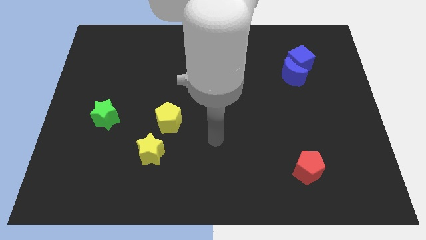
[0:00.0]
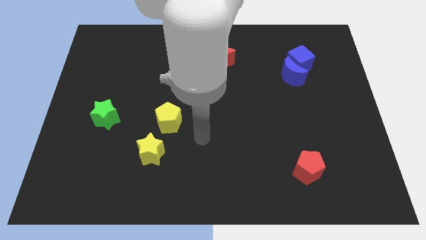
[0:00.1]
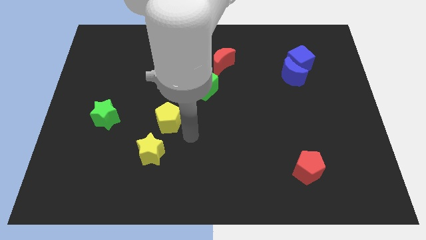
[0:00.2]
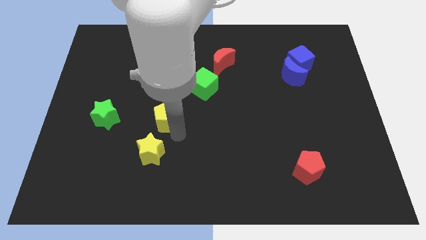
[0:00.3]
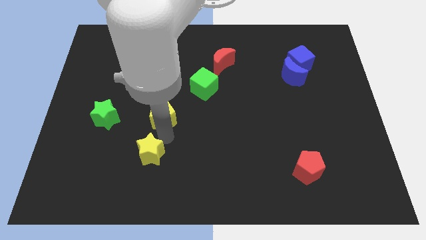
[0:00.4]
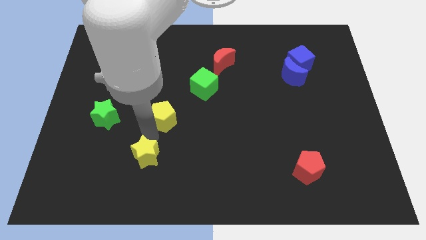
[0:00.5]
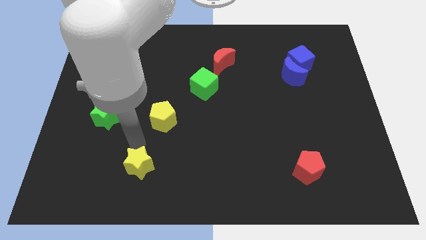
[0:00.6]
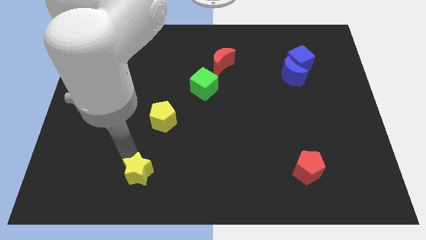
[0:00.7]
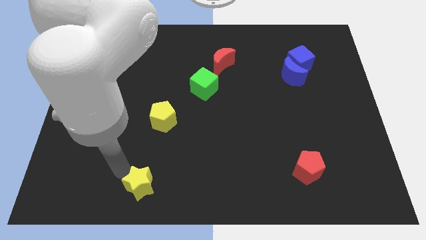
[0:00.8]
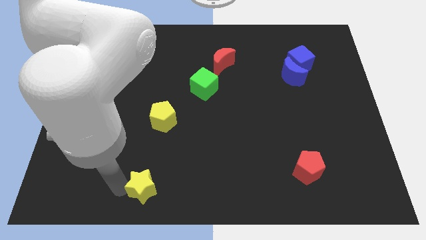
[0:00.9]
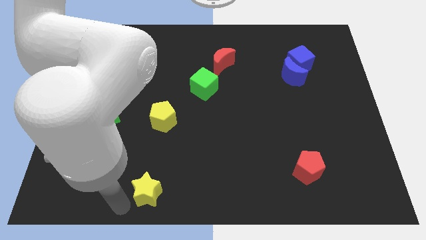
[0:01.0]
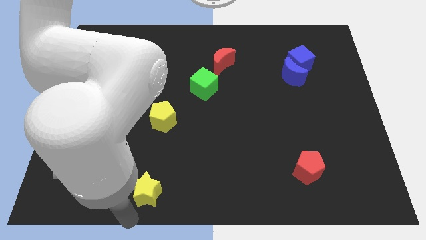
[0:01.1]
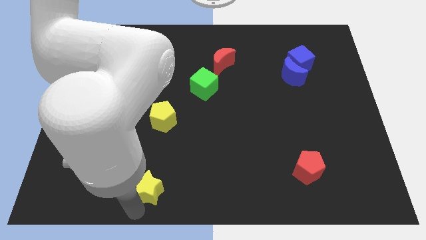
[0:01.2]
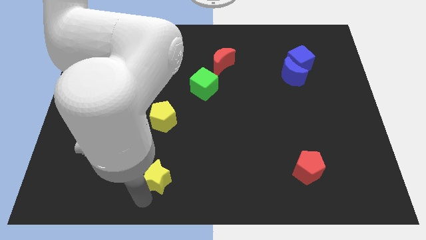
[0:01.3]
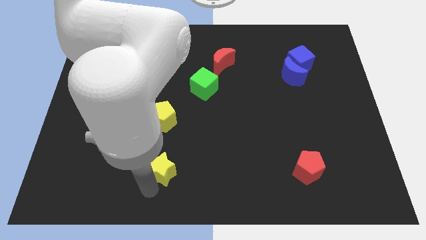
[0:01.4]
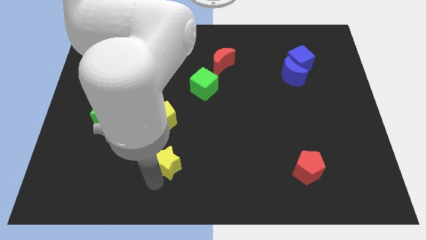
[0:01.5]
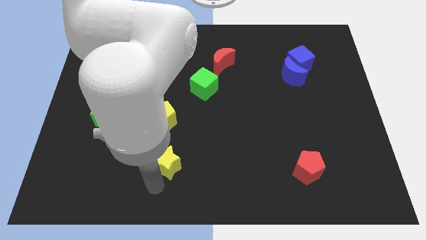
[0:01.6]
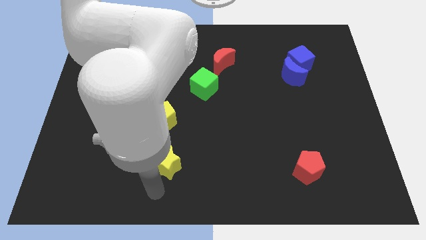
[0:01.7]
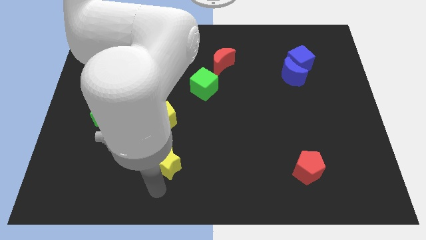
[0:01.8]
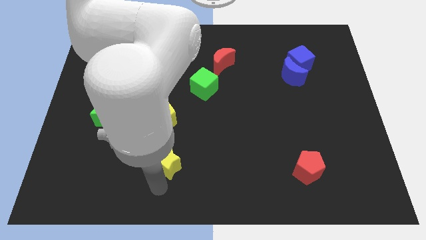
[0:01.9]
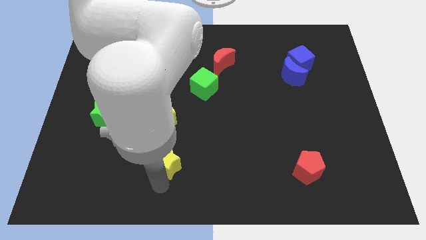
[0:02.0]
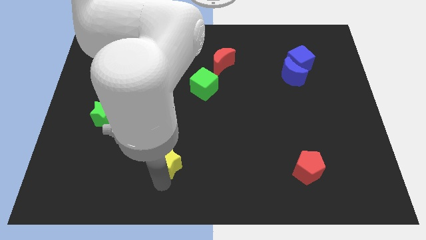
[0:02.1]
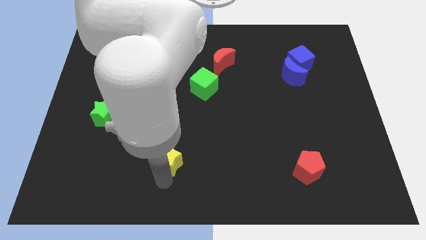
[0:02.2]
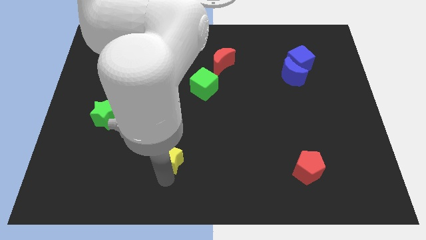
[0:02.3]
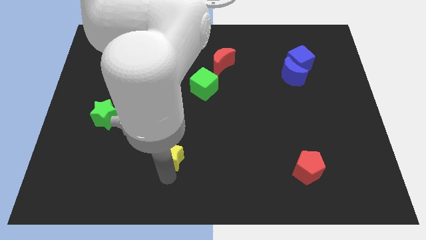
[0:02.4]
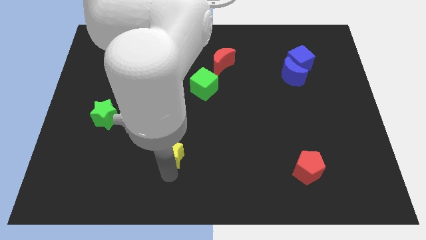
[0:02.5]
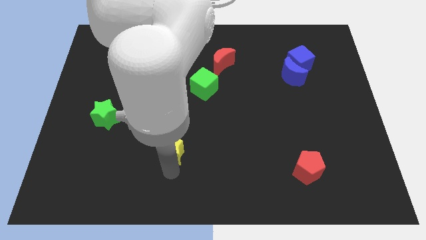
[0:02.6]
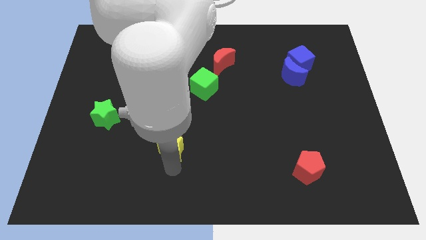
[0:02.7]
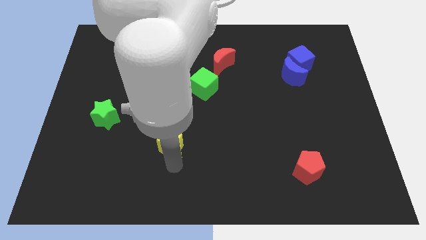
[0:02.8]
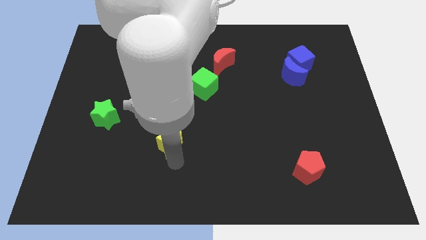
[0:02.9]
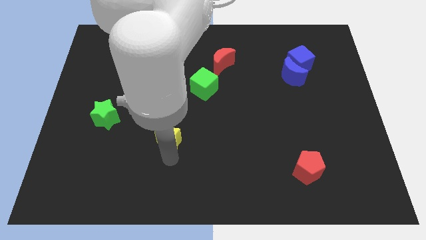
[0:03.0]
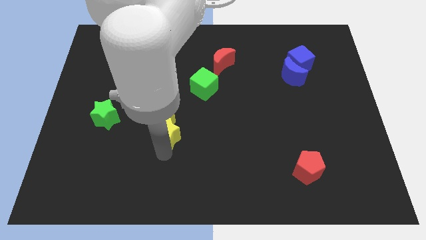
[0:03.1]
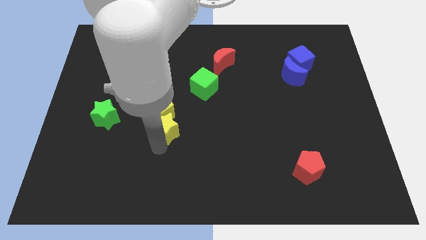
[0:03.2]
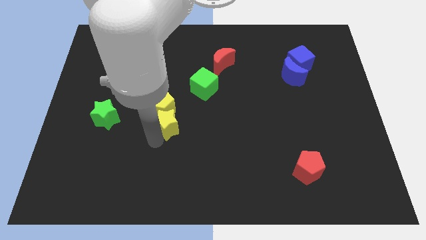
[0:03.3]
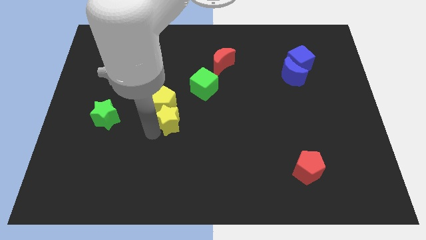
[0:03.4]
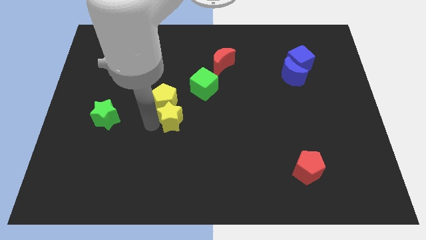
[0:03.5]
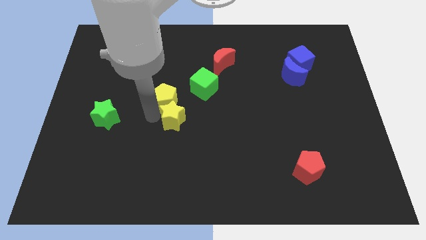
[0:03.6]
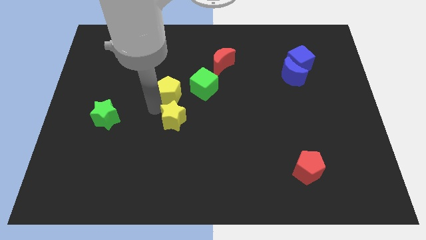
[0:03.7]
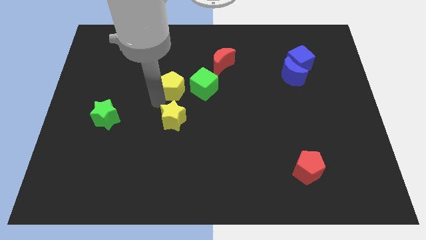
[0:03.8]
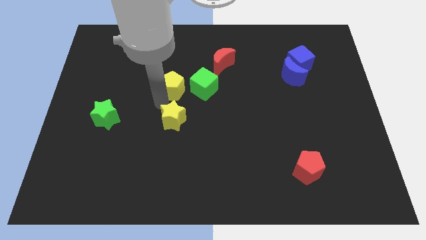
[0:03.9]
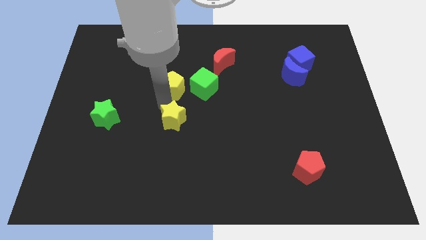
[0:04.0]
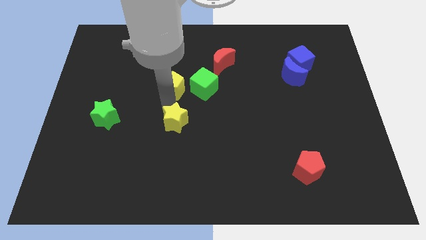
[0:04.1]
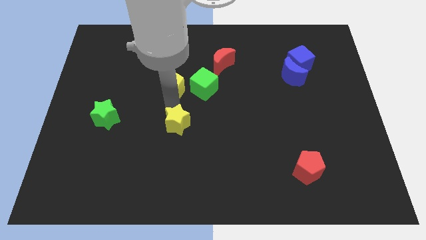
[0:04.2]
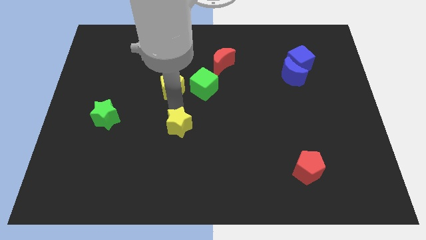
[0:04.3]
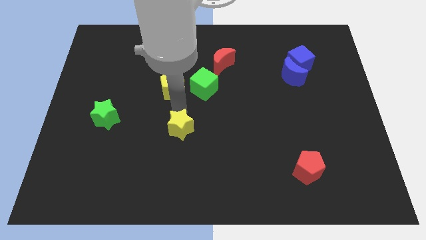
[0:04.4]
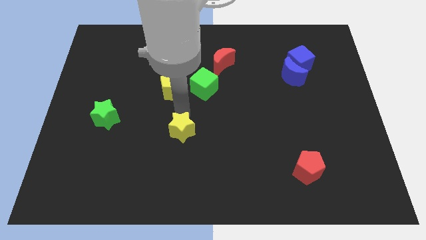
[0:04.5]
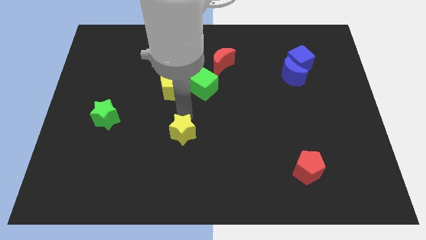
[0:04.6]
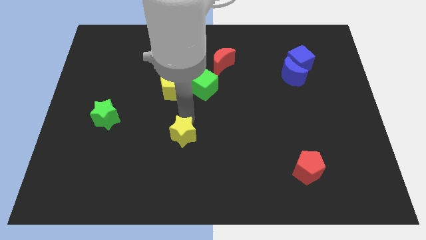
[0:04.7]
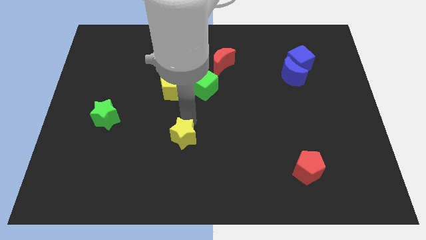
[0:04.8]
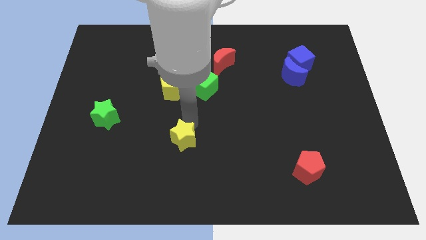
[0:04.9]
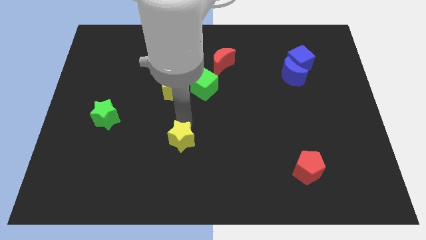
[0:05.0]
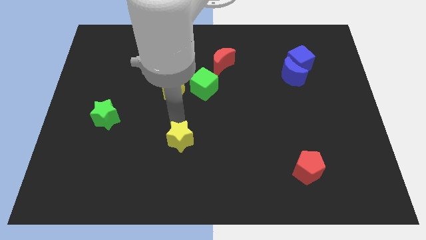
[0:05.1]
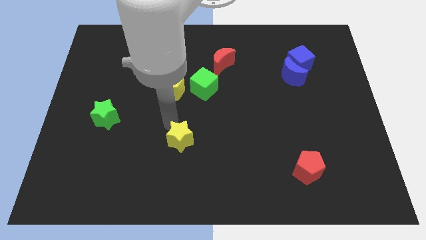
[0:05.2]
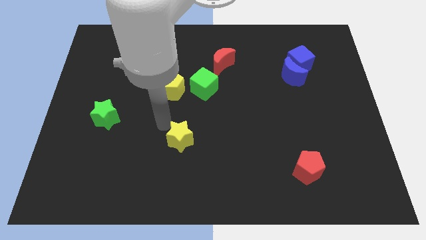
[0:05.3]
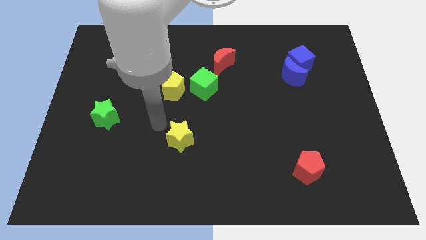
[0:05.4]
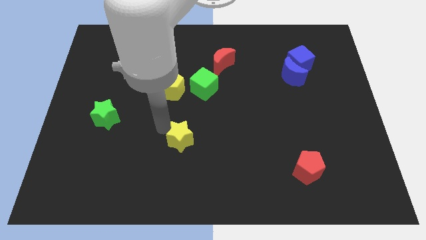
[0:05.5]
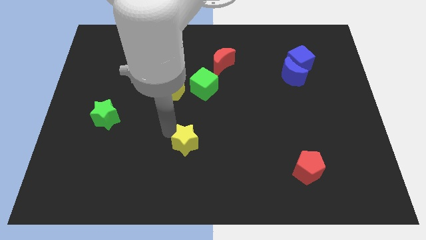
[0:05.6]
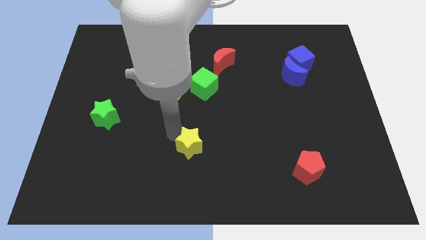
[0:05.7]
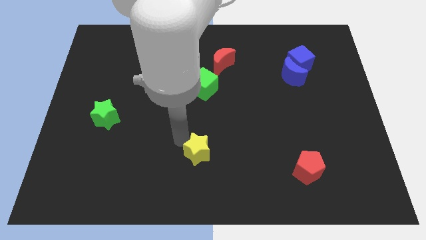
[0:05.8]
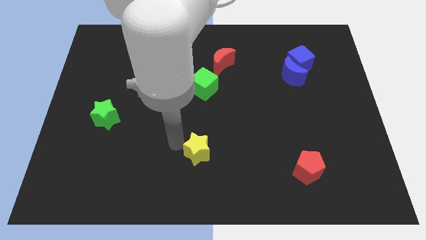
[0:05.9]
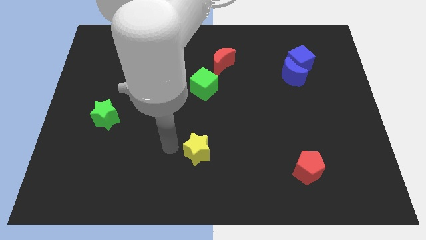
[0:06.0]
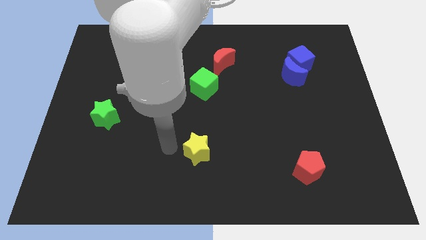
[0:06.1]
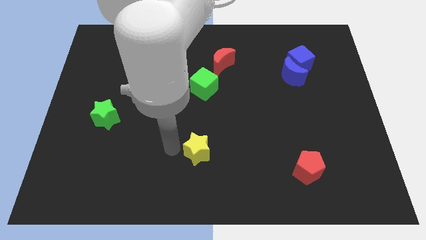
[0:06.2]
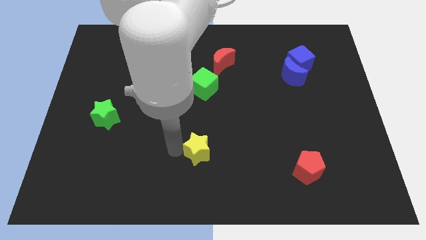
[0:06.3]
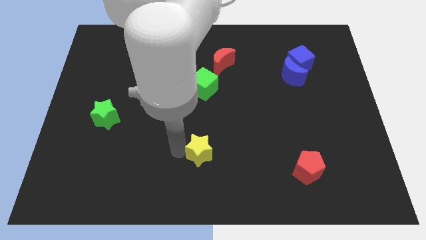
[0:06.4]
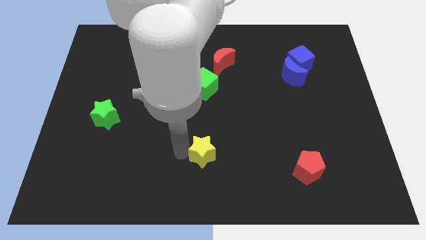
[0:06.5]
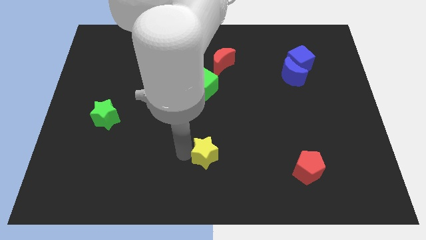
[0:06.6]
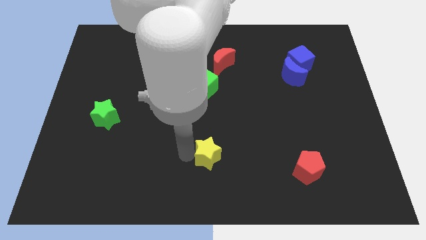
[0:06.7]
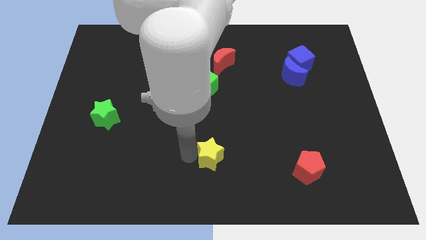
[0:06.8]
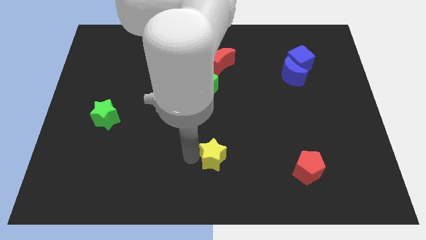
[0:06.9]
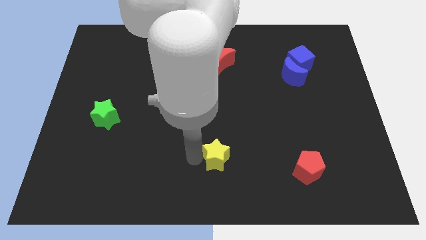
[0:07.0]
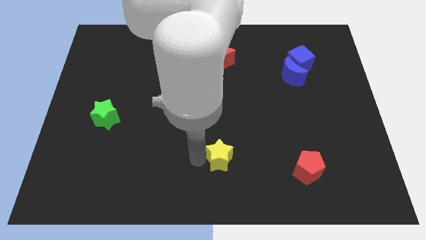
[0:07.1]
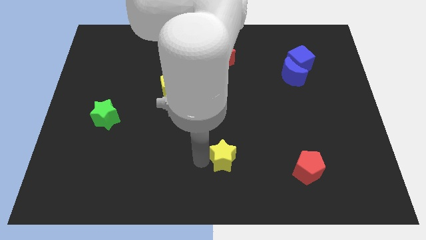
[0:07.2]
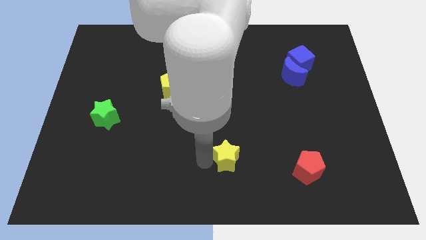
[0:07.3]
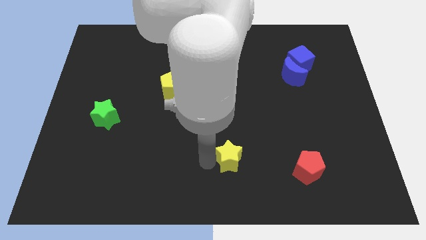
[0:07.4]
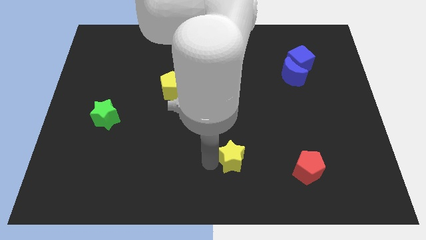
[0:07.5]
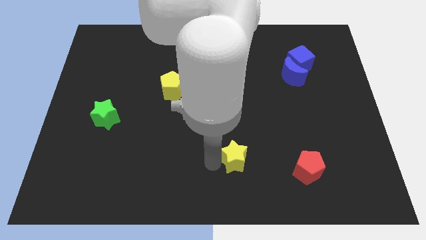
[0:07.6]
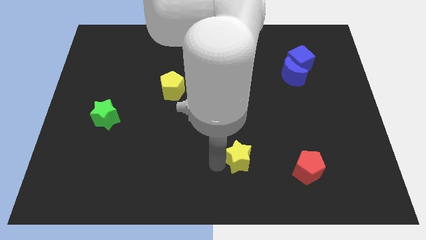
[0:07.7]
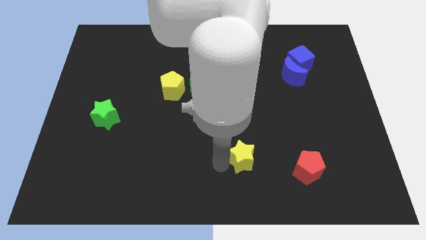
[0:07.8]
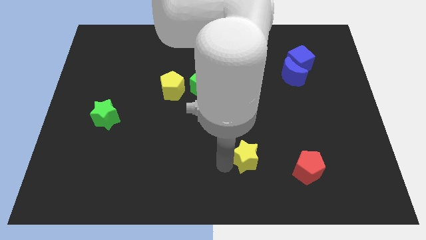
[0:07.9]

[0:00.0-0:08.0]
slide the yellow star to the right

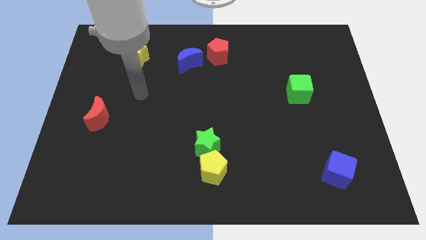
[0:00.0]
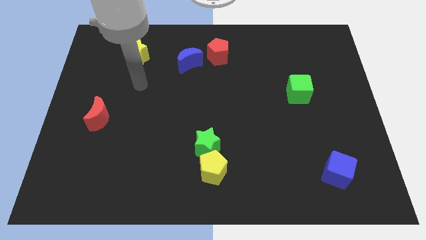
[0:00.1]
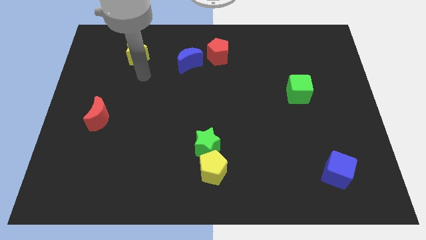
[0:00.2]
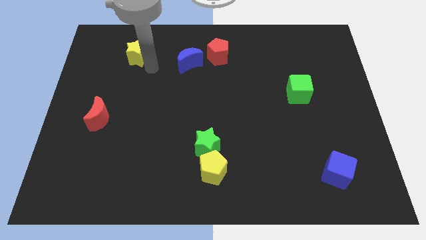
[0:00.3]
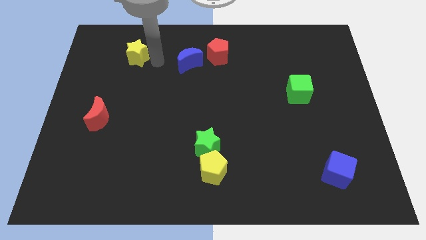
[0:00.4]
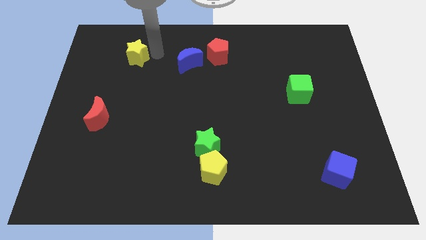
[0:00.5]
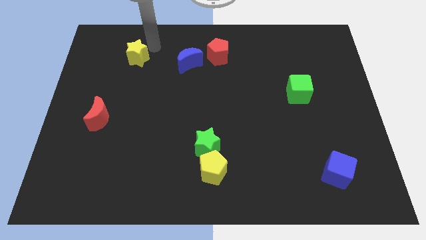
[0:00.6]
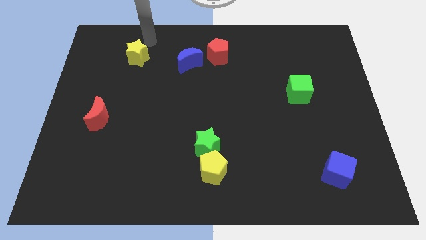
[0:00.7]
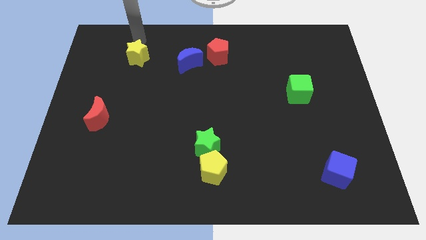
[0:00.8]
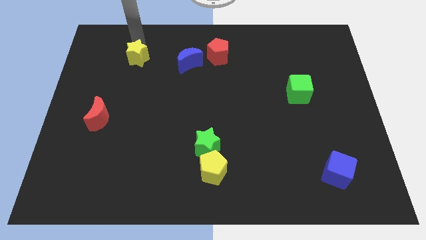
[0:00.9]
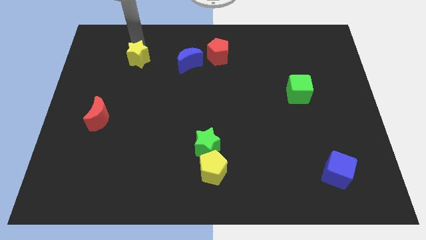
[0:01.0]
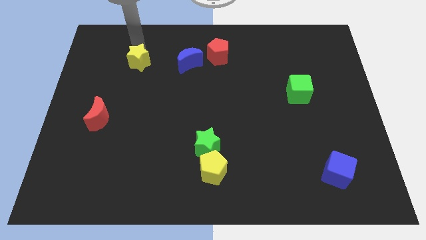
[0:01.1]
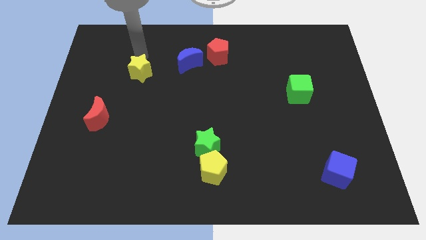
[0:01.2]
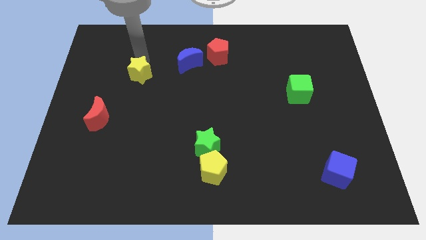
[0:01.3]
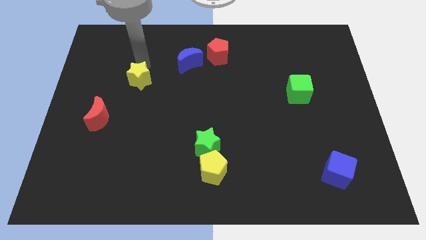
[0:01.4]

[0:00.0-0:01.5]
slide the yellow star downwards a little
